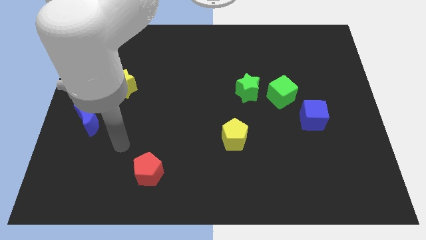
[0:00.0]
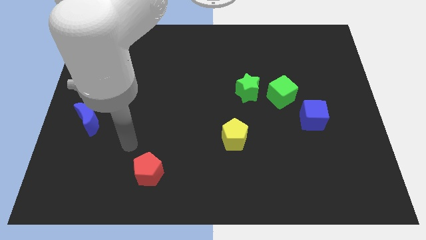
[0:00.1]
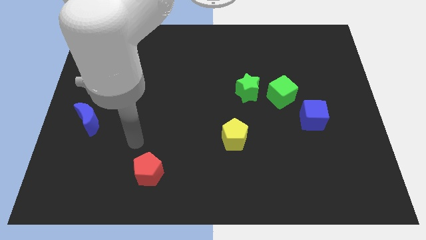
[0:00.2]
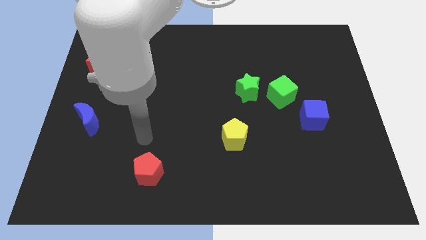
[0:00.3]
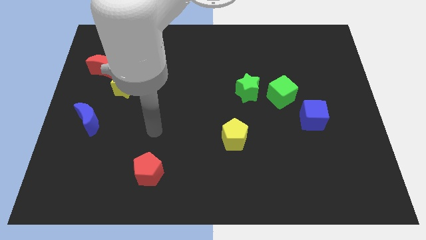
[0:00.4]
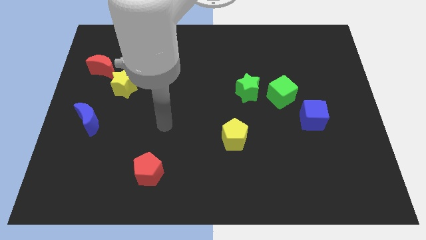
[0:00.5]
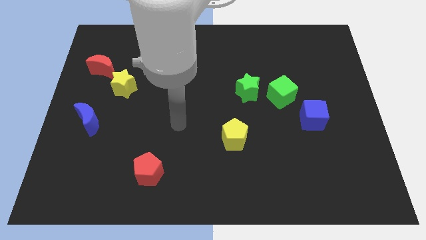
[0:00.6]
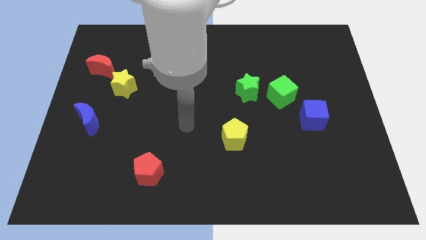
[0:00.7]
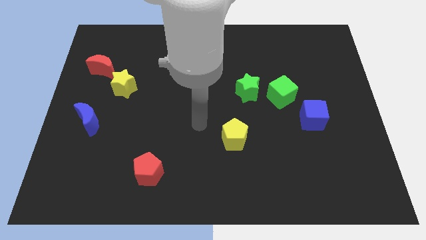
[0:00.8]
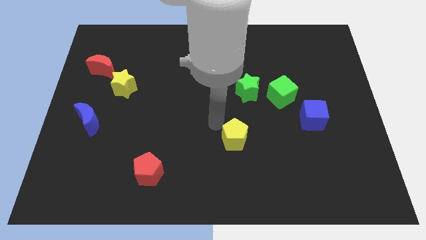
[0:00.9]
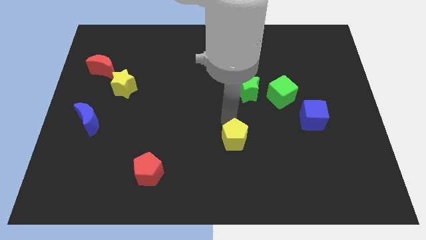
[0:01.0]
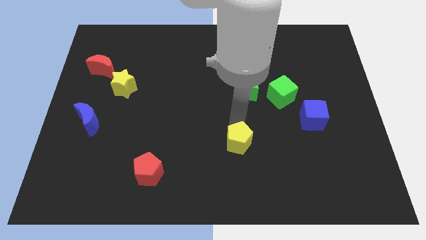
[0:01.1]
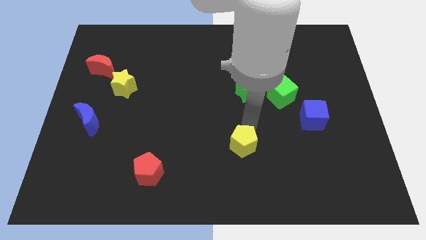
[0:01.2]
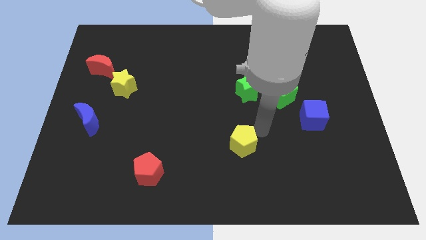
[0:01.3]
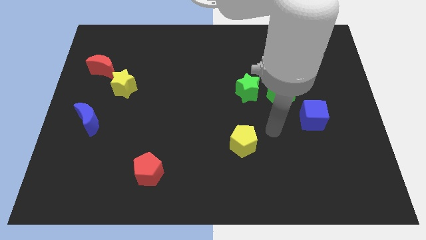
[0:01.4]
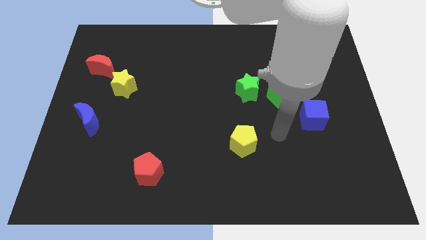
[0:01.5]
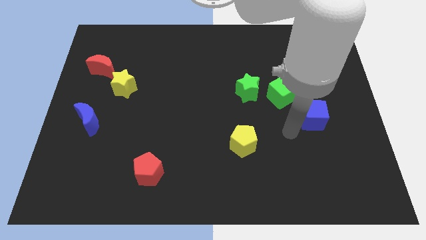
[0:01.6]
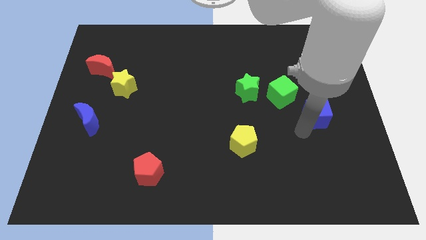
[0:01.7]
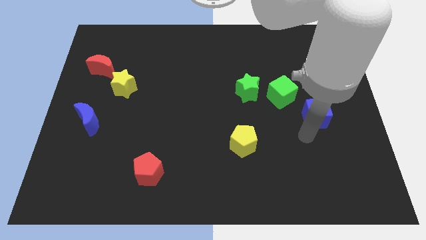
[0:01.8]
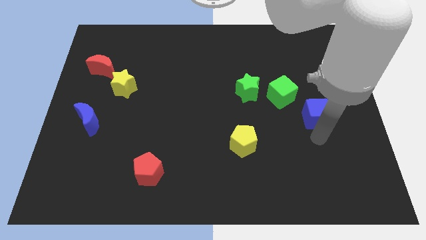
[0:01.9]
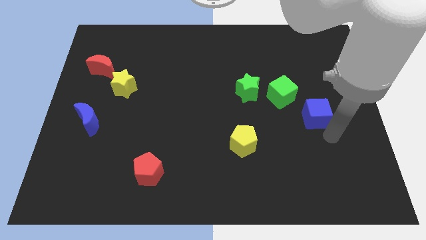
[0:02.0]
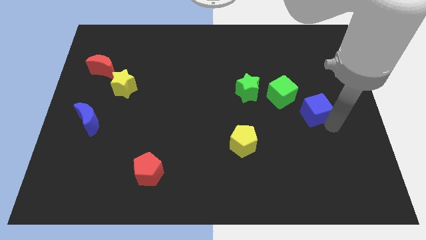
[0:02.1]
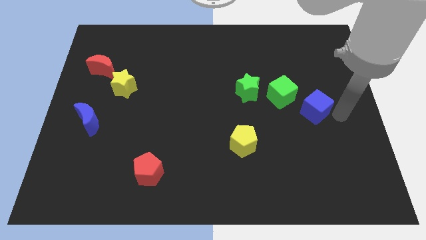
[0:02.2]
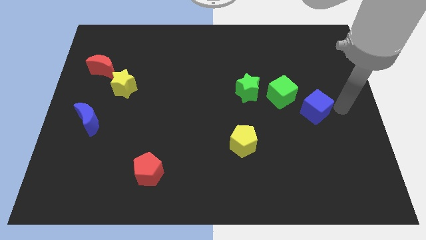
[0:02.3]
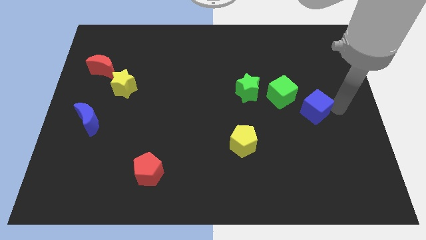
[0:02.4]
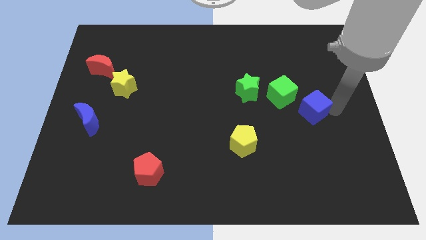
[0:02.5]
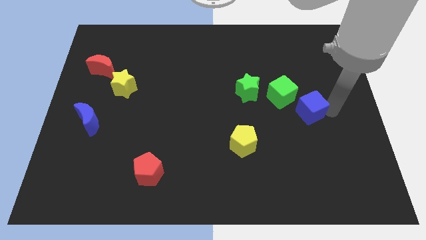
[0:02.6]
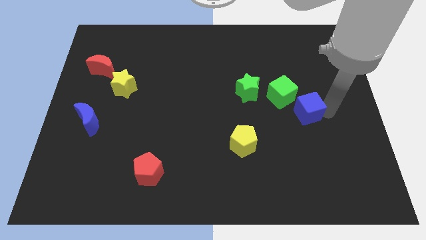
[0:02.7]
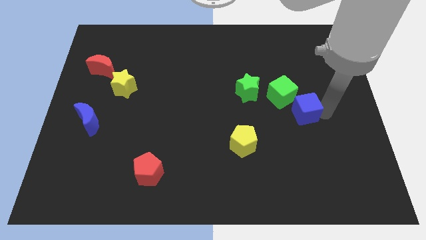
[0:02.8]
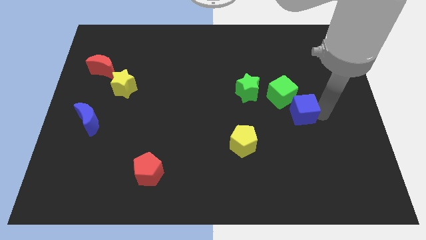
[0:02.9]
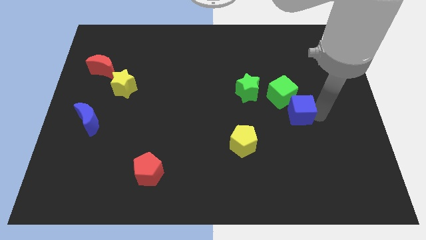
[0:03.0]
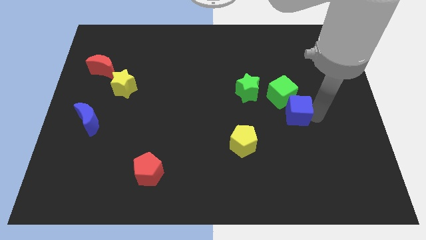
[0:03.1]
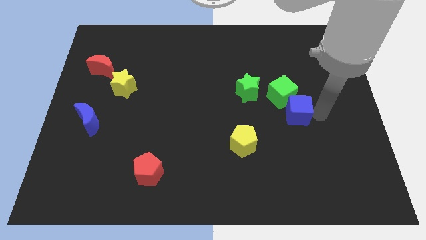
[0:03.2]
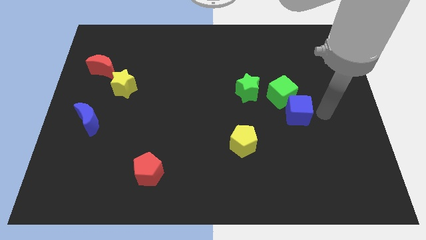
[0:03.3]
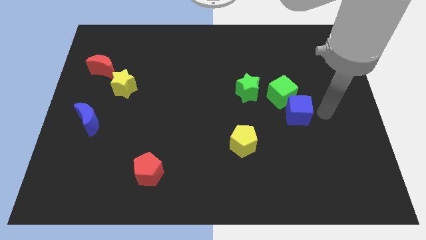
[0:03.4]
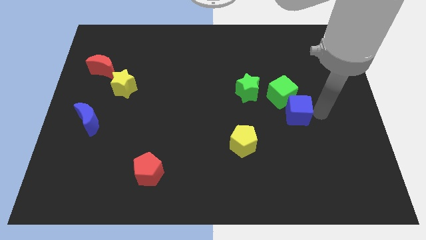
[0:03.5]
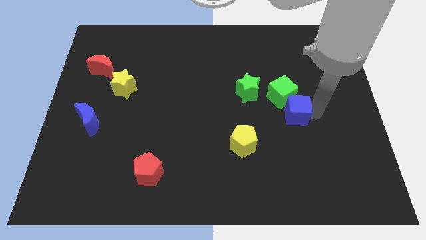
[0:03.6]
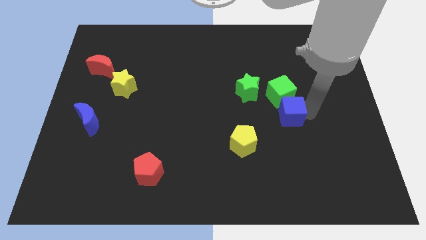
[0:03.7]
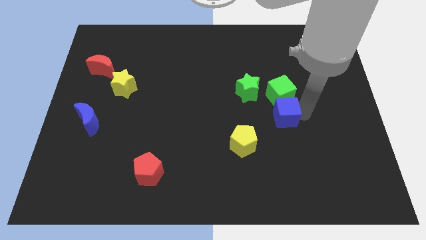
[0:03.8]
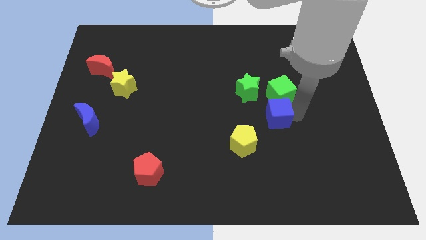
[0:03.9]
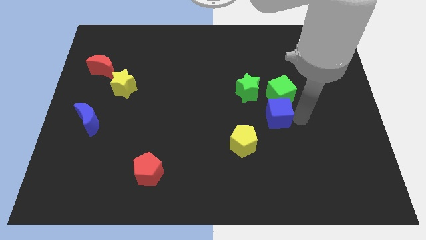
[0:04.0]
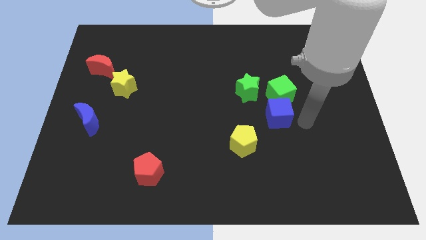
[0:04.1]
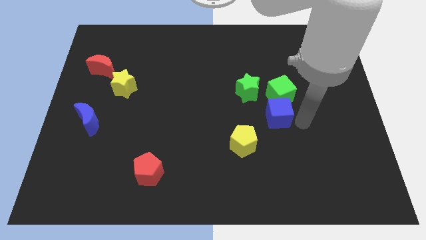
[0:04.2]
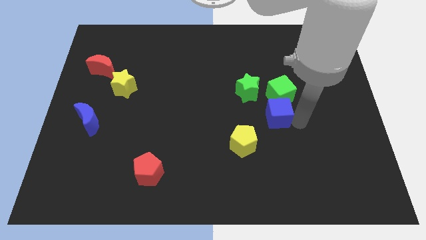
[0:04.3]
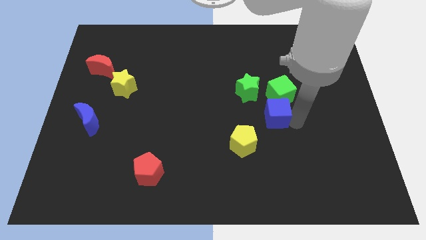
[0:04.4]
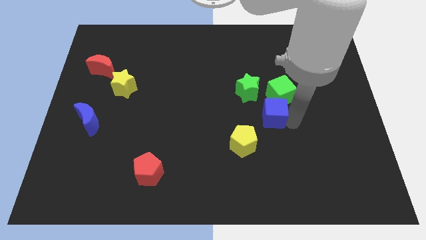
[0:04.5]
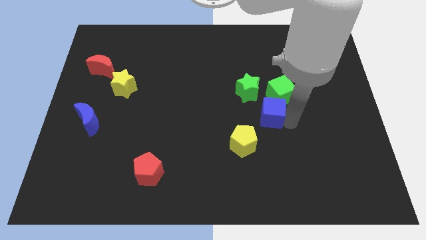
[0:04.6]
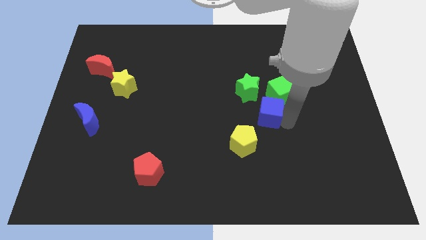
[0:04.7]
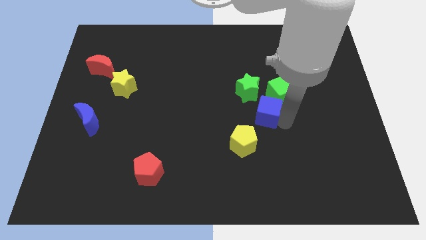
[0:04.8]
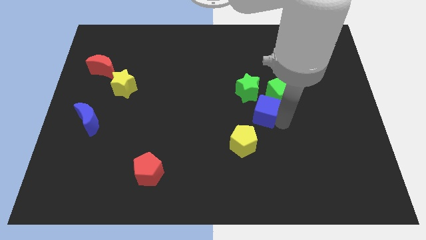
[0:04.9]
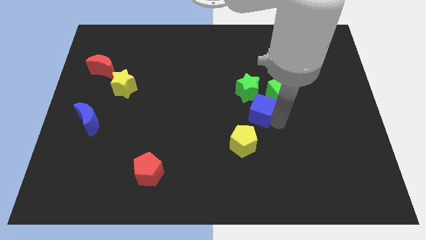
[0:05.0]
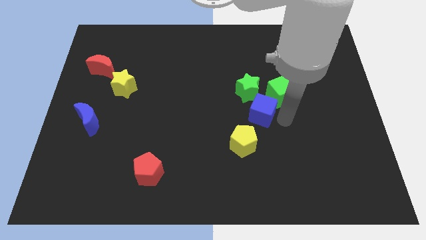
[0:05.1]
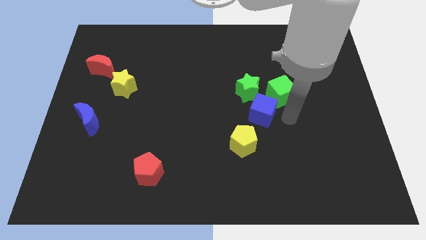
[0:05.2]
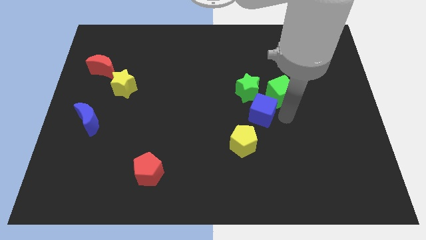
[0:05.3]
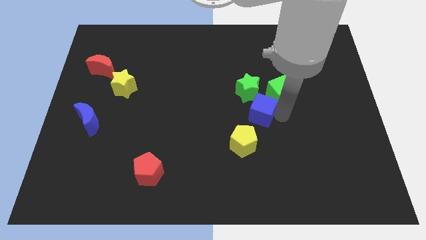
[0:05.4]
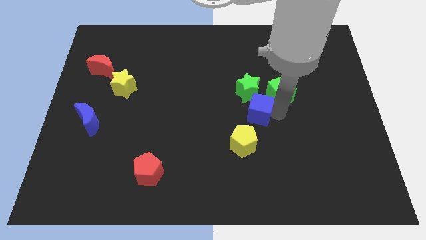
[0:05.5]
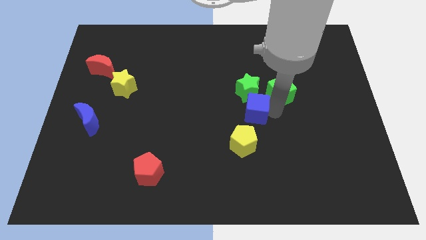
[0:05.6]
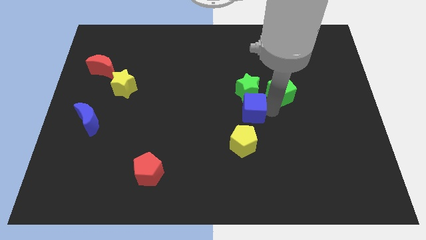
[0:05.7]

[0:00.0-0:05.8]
move the blue cube to the bottom left side of the green star

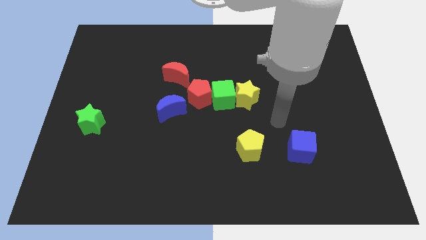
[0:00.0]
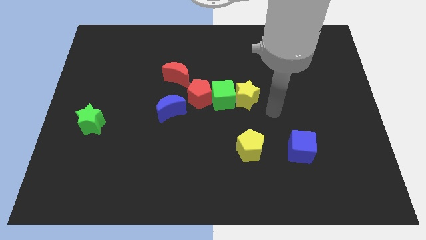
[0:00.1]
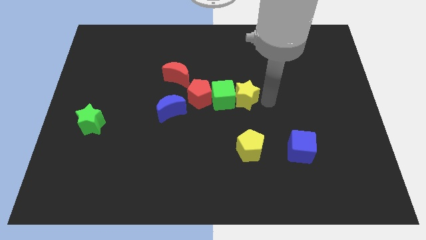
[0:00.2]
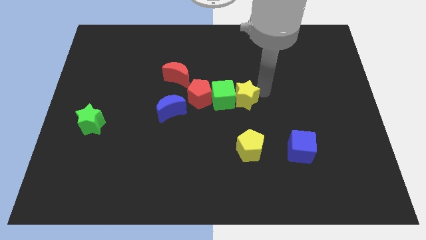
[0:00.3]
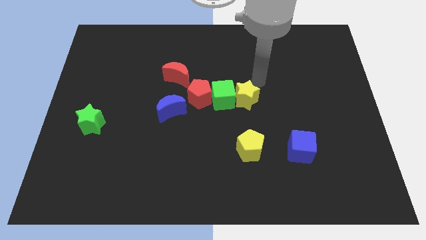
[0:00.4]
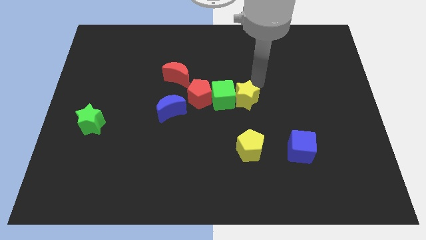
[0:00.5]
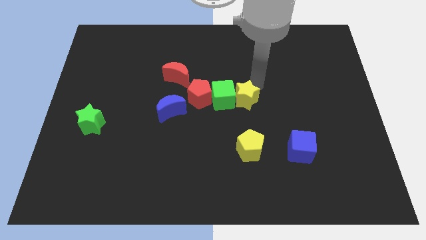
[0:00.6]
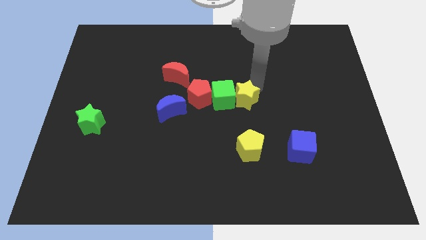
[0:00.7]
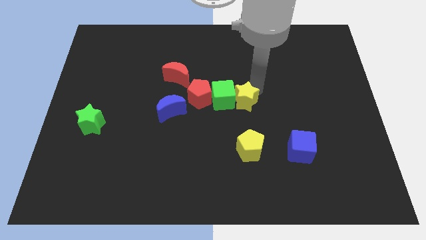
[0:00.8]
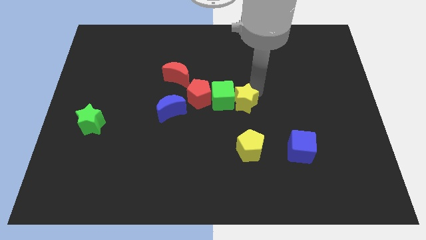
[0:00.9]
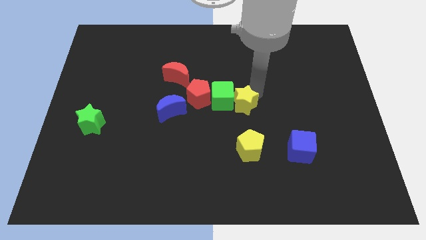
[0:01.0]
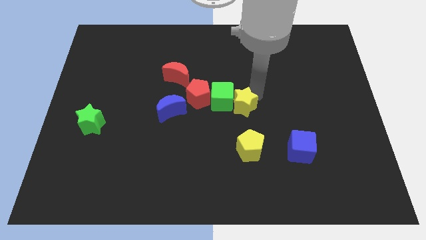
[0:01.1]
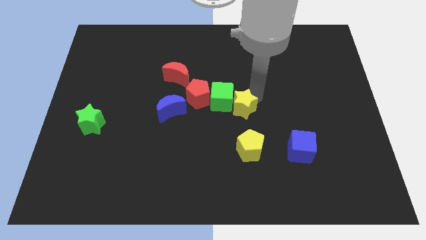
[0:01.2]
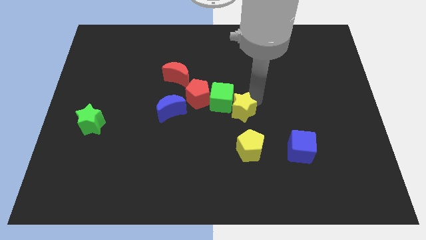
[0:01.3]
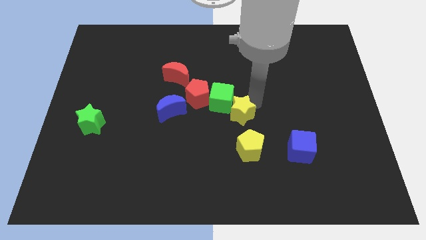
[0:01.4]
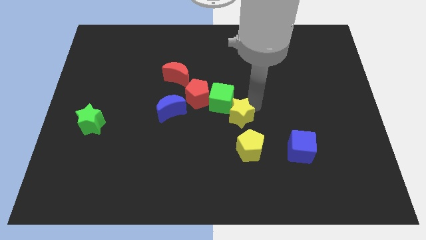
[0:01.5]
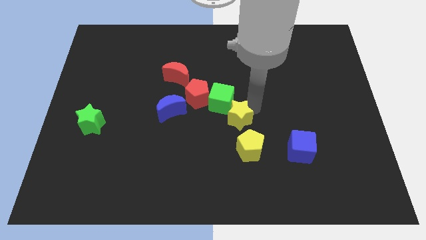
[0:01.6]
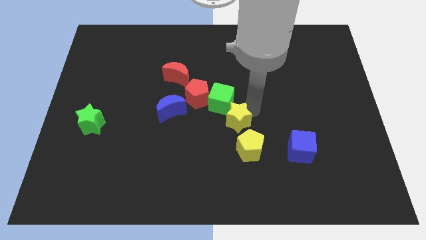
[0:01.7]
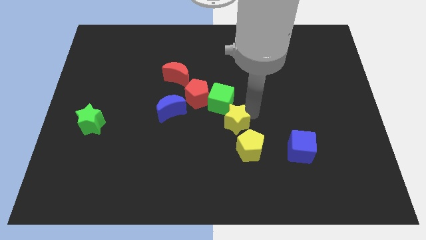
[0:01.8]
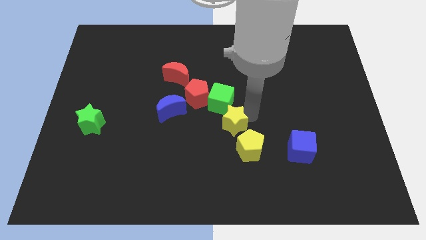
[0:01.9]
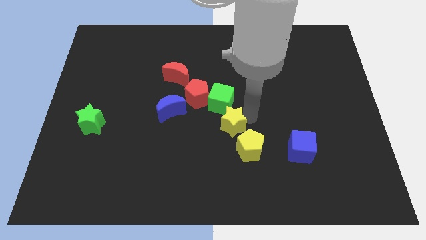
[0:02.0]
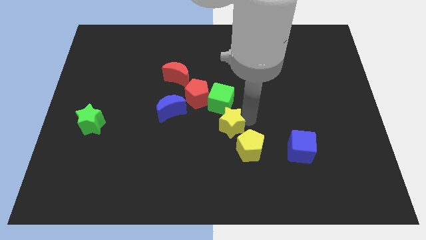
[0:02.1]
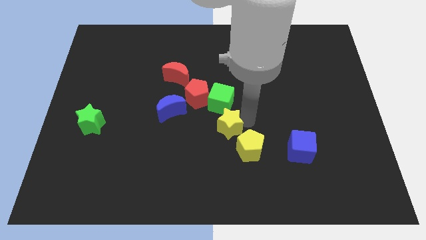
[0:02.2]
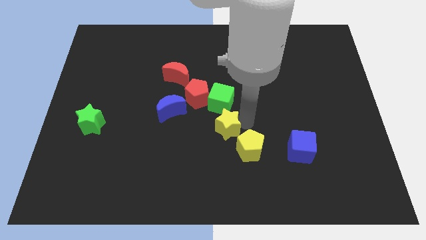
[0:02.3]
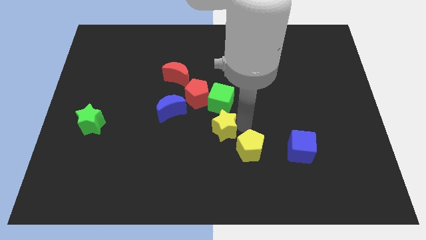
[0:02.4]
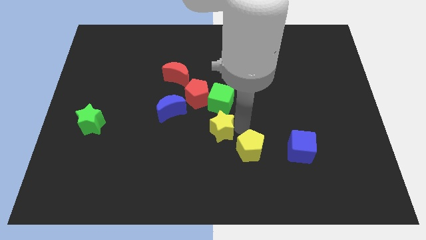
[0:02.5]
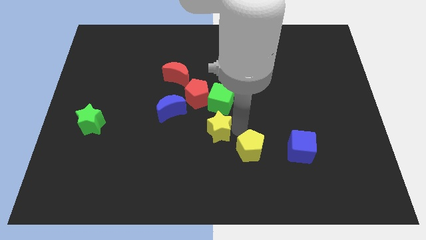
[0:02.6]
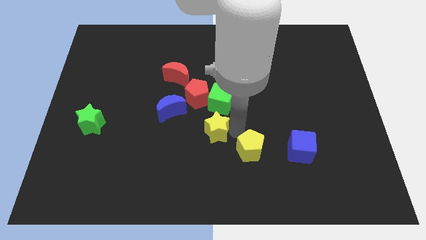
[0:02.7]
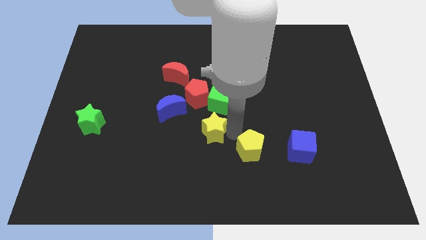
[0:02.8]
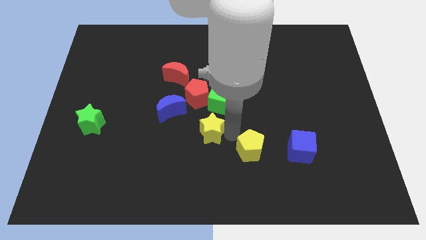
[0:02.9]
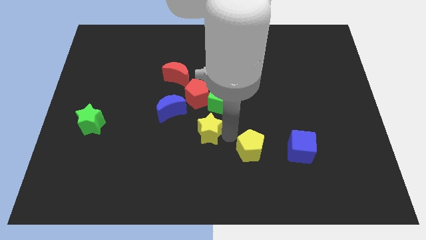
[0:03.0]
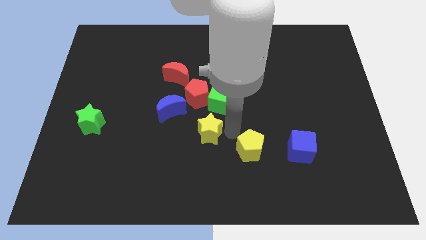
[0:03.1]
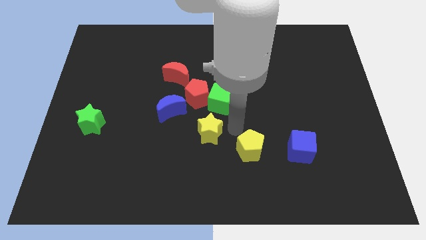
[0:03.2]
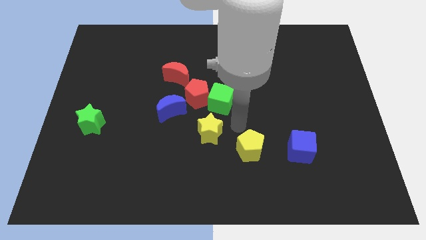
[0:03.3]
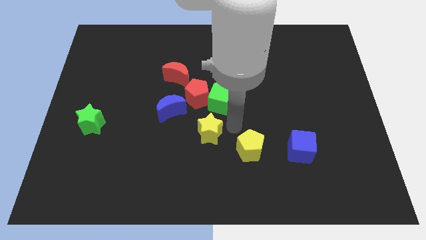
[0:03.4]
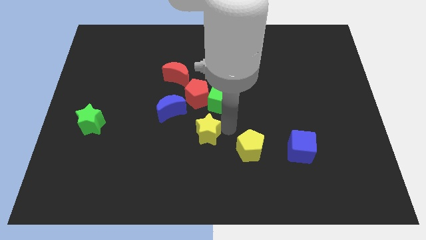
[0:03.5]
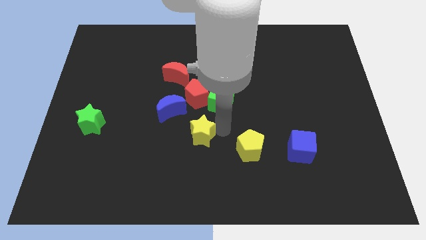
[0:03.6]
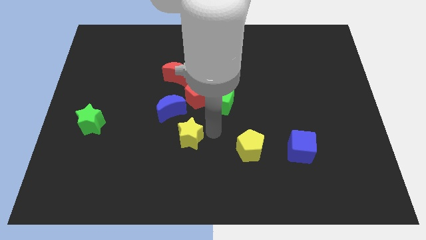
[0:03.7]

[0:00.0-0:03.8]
push the yellow star below the blue moon
